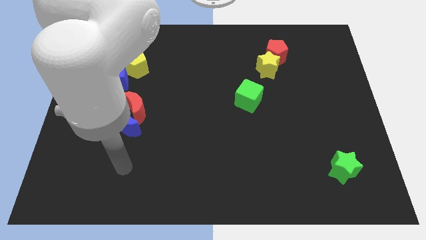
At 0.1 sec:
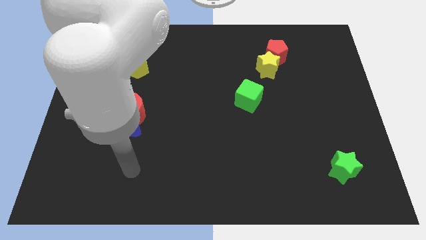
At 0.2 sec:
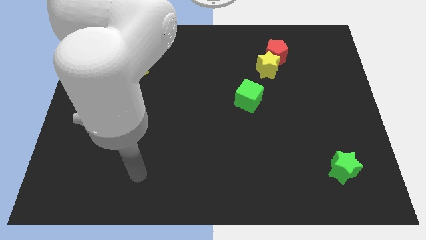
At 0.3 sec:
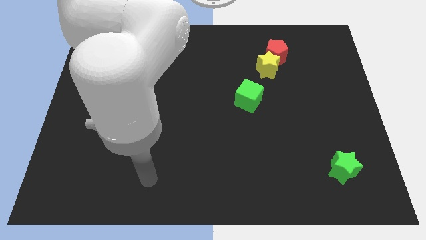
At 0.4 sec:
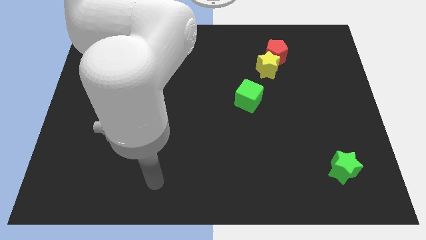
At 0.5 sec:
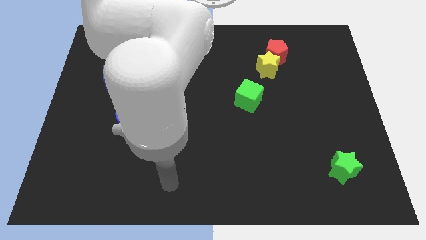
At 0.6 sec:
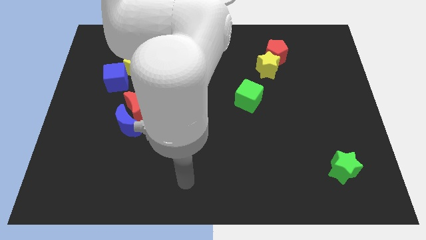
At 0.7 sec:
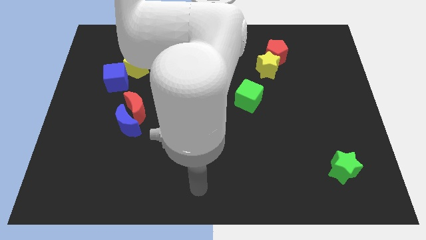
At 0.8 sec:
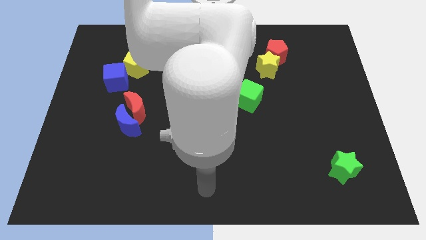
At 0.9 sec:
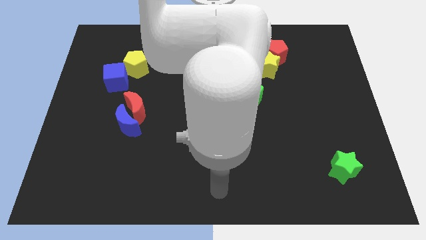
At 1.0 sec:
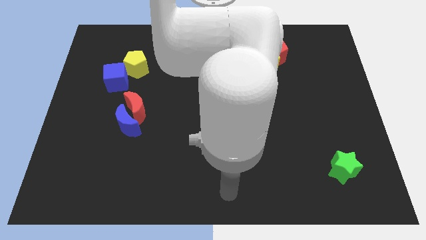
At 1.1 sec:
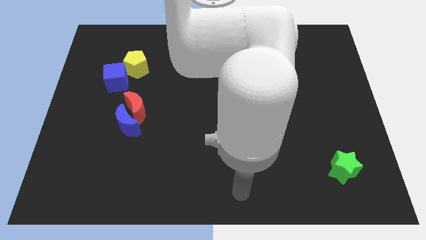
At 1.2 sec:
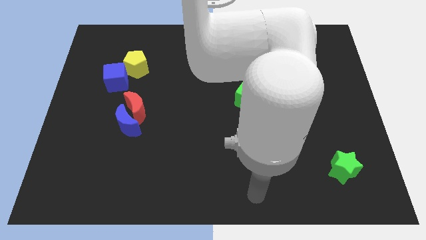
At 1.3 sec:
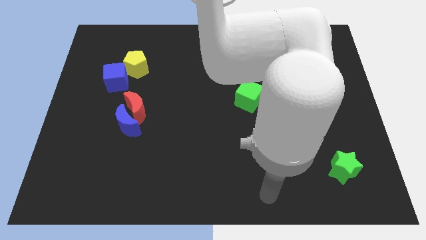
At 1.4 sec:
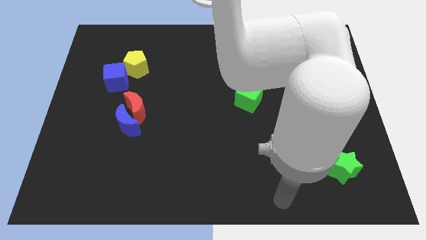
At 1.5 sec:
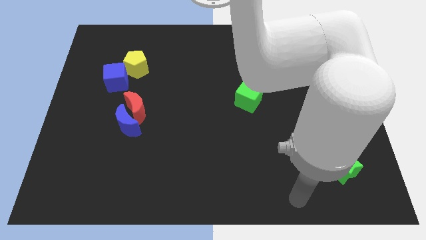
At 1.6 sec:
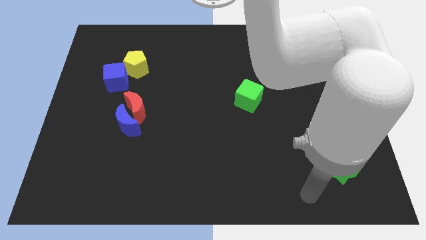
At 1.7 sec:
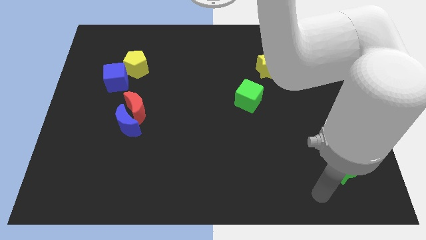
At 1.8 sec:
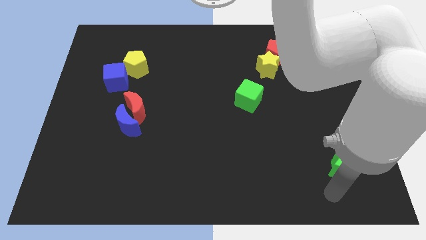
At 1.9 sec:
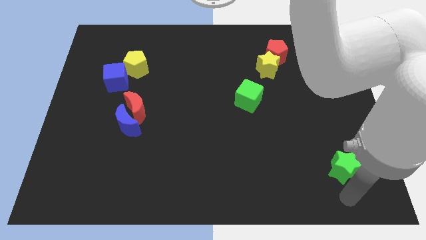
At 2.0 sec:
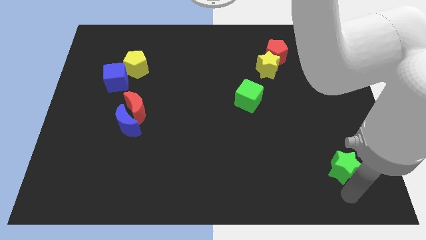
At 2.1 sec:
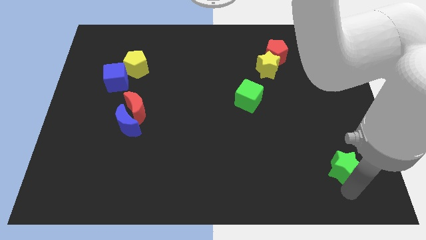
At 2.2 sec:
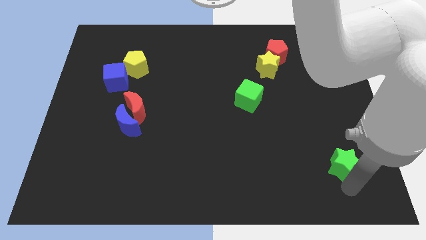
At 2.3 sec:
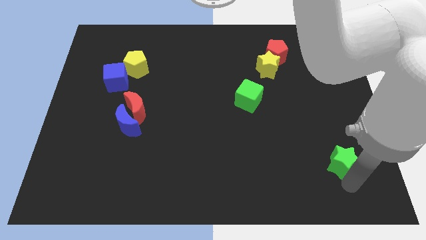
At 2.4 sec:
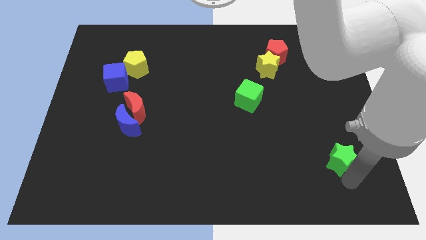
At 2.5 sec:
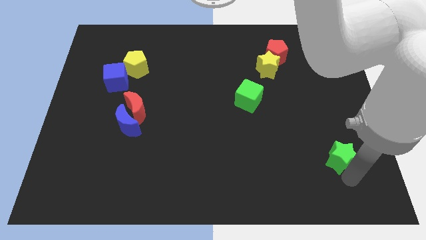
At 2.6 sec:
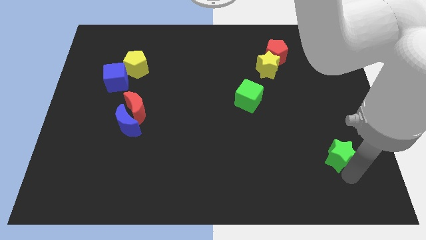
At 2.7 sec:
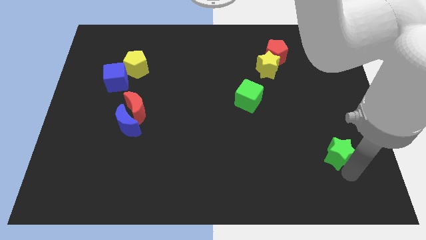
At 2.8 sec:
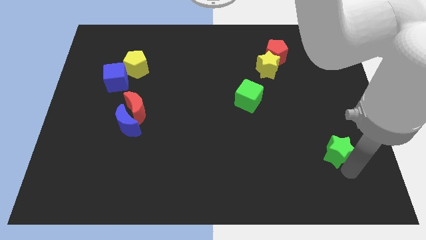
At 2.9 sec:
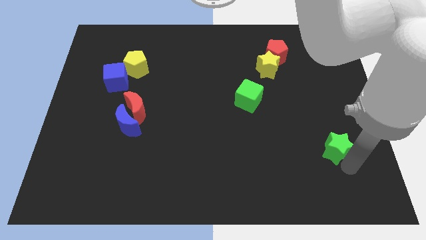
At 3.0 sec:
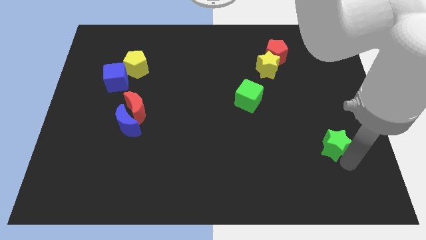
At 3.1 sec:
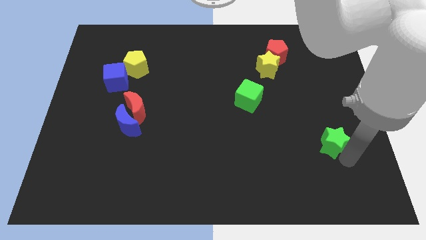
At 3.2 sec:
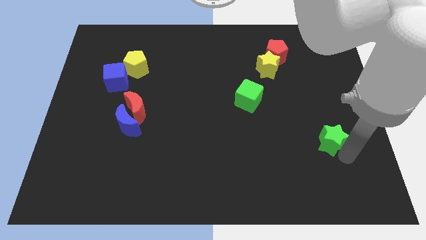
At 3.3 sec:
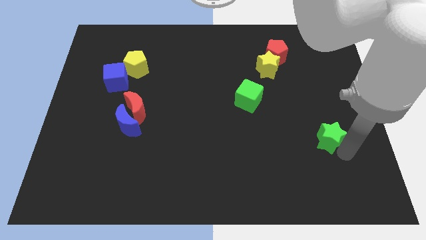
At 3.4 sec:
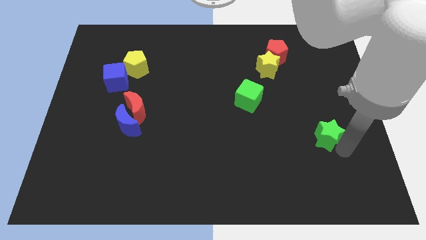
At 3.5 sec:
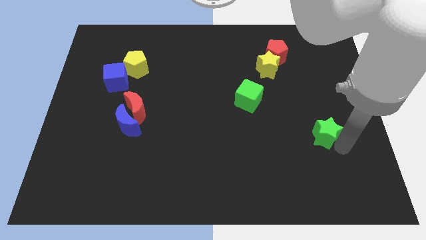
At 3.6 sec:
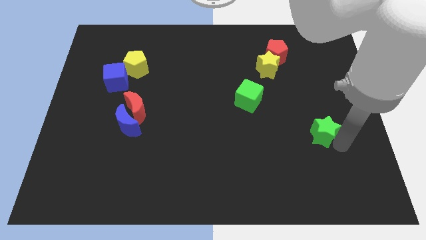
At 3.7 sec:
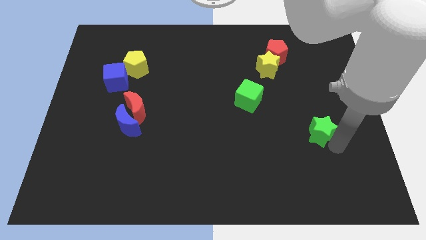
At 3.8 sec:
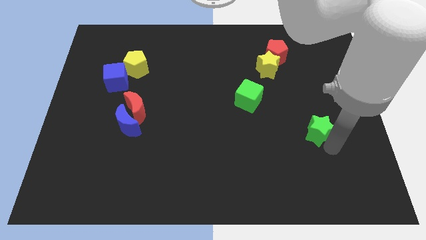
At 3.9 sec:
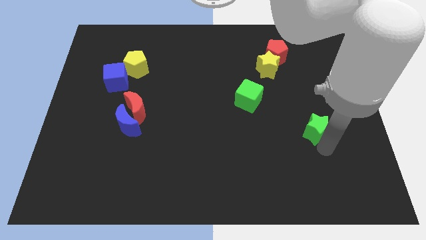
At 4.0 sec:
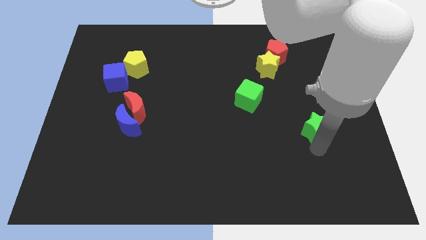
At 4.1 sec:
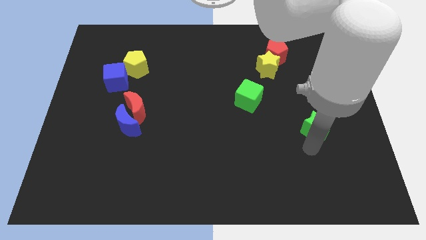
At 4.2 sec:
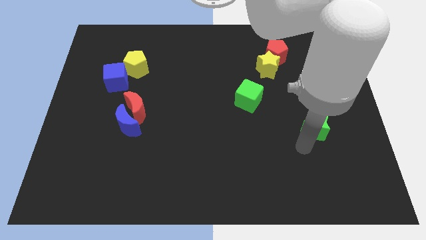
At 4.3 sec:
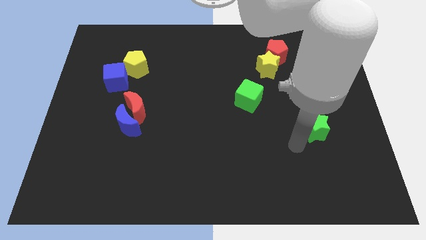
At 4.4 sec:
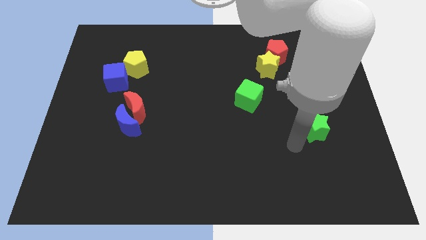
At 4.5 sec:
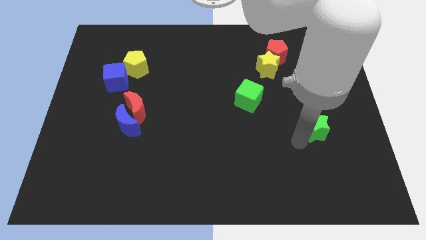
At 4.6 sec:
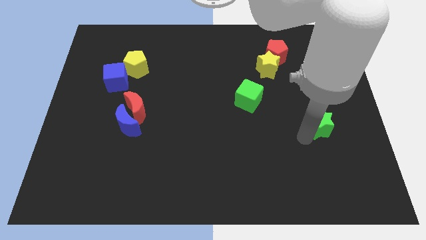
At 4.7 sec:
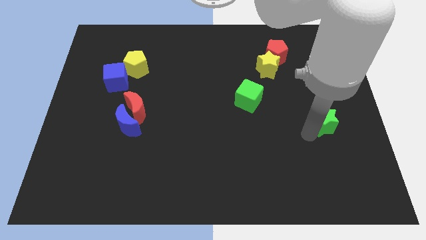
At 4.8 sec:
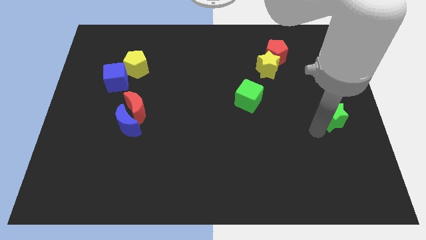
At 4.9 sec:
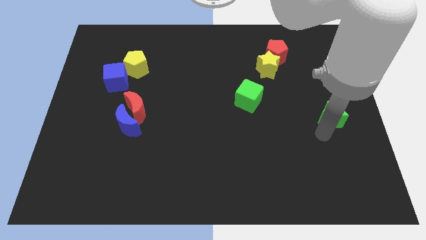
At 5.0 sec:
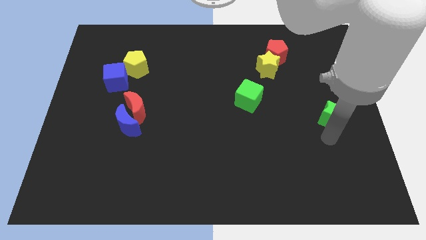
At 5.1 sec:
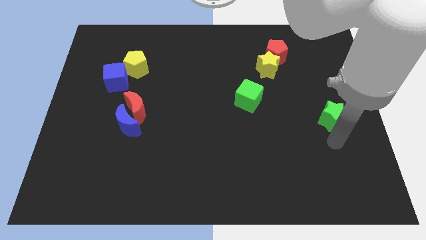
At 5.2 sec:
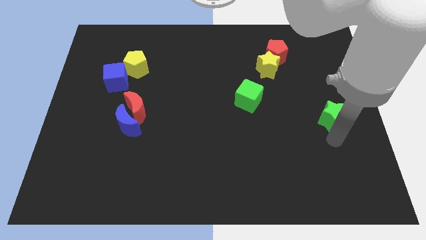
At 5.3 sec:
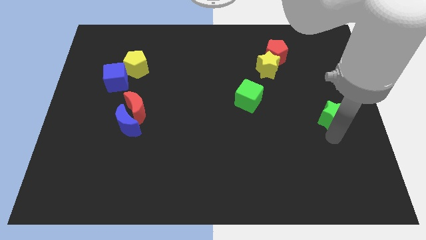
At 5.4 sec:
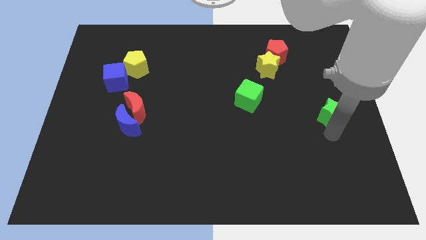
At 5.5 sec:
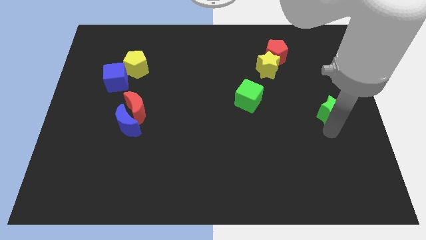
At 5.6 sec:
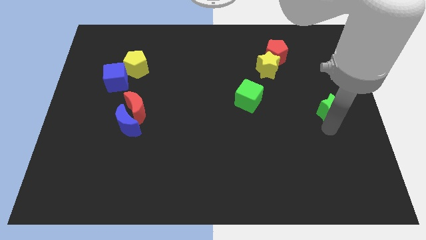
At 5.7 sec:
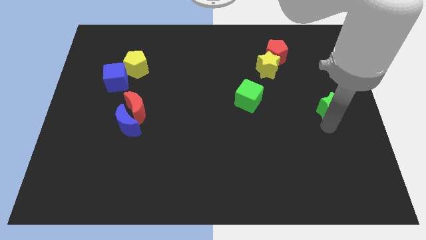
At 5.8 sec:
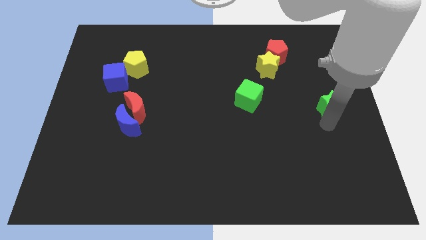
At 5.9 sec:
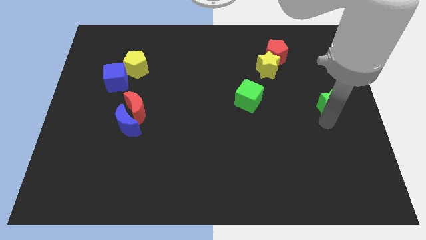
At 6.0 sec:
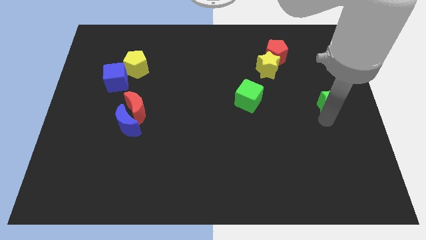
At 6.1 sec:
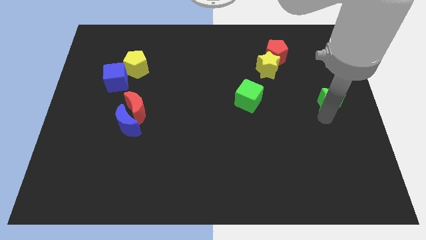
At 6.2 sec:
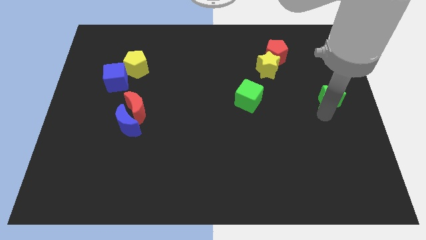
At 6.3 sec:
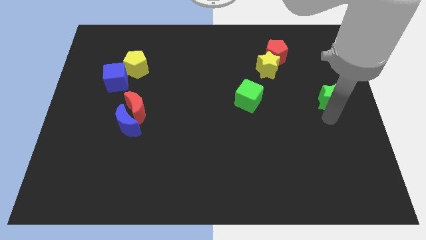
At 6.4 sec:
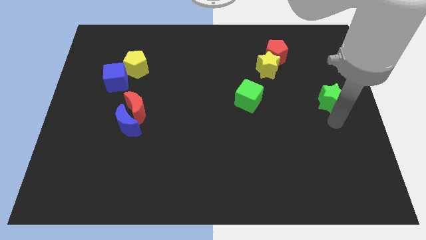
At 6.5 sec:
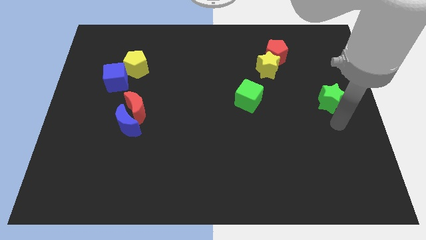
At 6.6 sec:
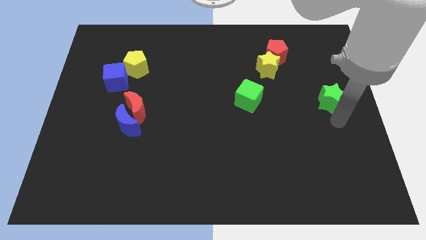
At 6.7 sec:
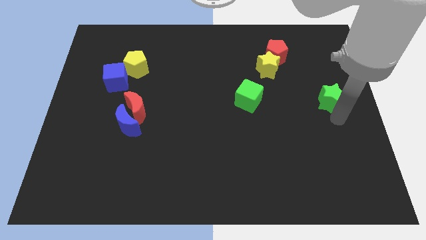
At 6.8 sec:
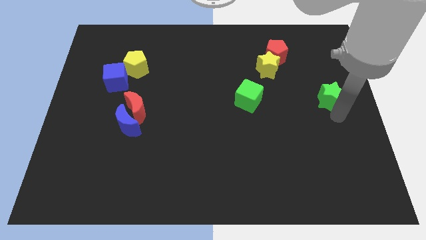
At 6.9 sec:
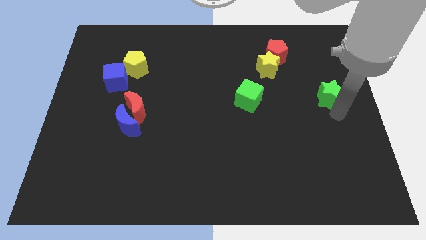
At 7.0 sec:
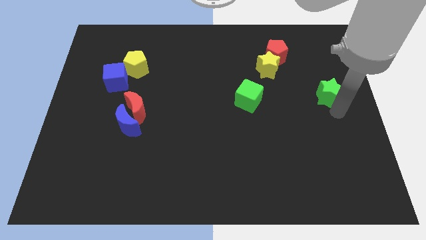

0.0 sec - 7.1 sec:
push the green star up

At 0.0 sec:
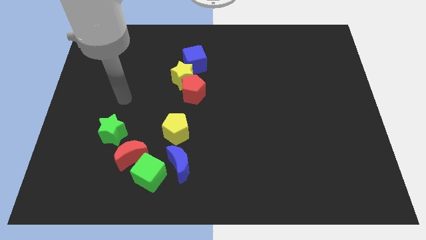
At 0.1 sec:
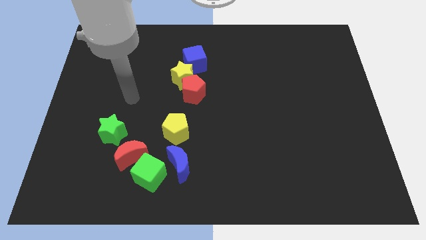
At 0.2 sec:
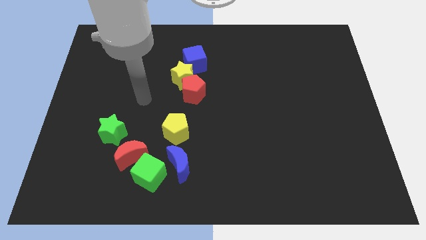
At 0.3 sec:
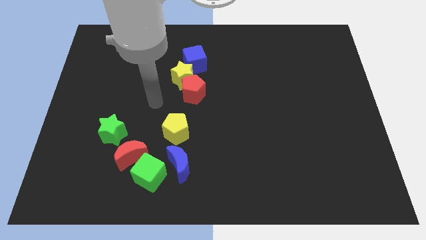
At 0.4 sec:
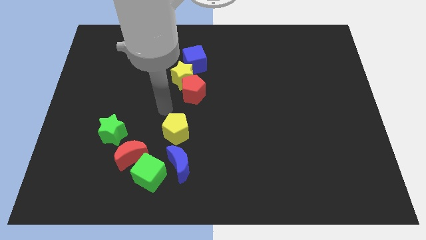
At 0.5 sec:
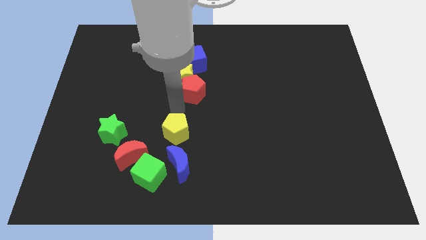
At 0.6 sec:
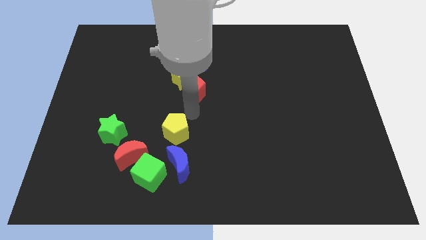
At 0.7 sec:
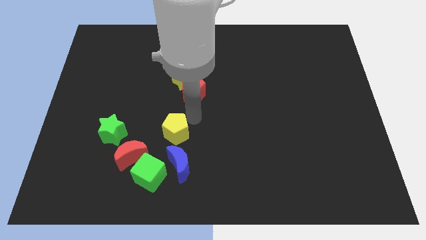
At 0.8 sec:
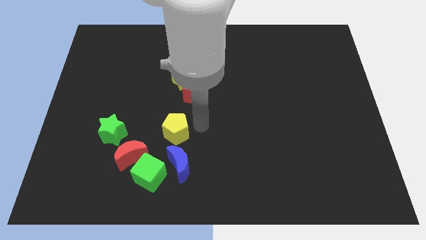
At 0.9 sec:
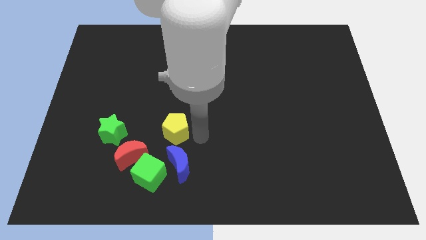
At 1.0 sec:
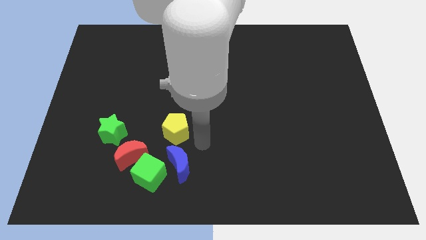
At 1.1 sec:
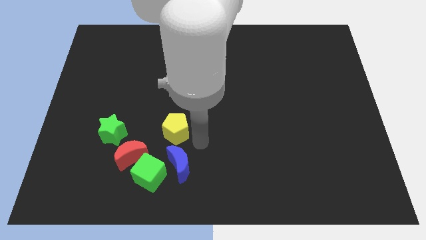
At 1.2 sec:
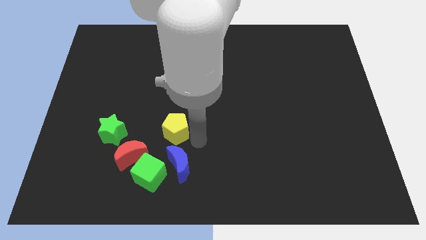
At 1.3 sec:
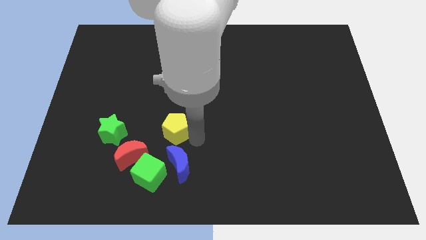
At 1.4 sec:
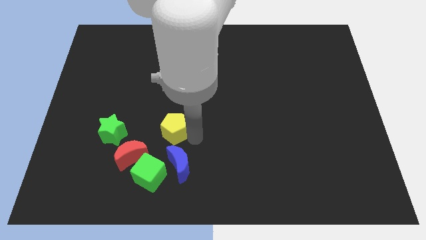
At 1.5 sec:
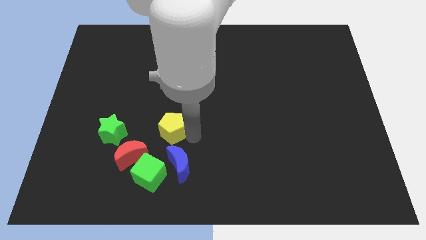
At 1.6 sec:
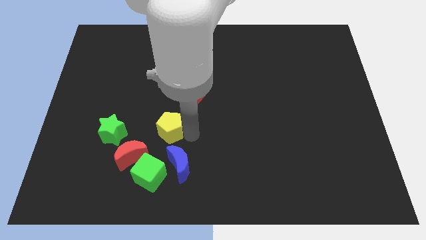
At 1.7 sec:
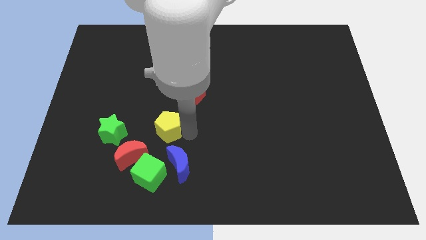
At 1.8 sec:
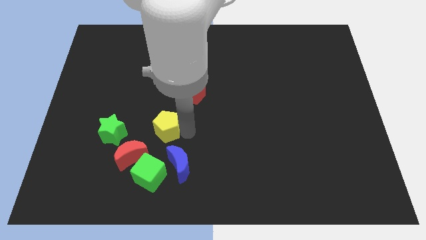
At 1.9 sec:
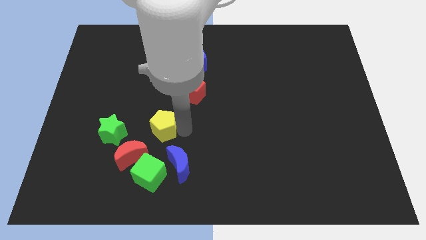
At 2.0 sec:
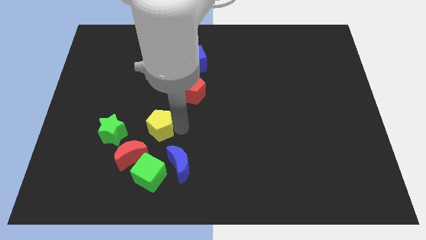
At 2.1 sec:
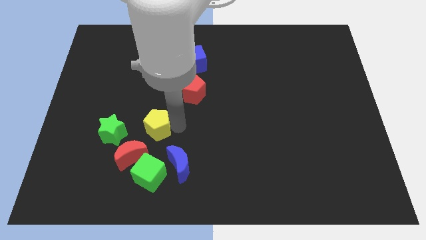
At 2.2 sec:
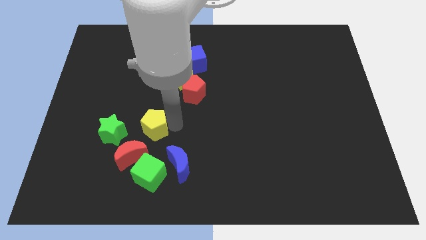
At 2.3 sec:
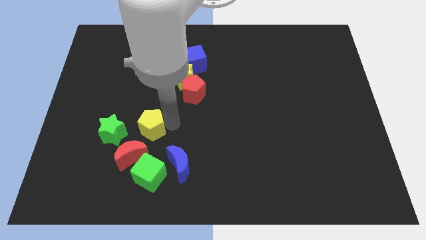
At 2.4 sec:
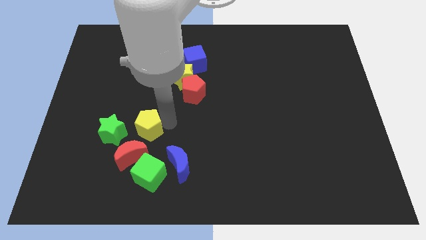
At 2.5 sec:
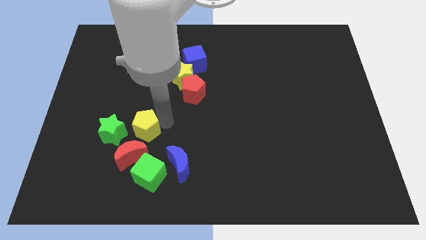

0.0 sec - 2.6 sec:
push the yellow pentagon left somewhat
